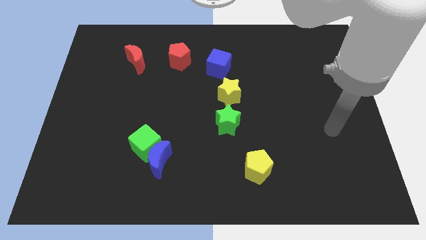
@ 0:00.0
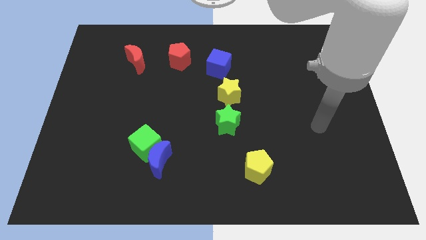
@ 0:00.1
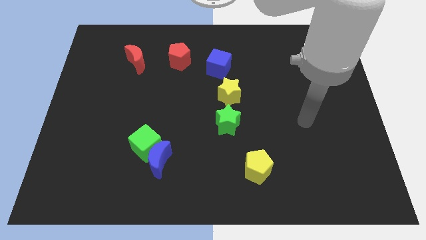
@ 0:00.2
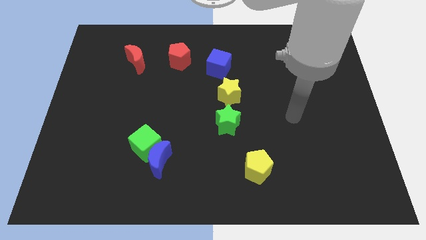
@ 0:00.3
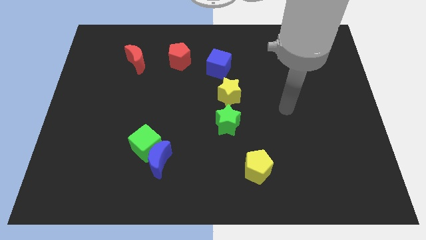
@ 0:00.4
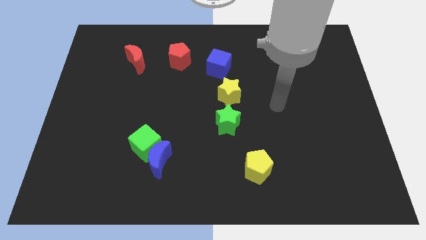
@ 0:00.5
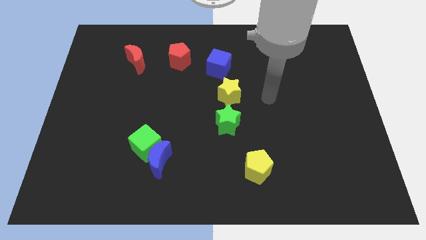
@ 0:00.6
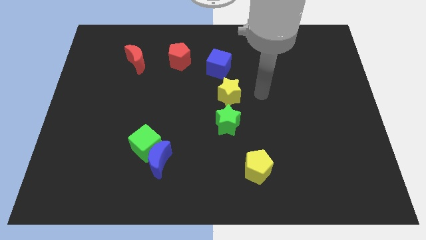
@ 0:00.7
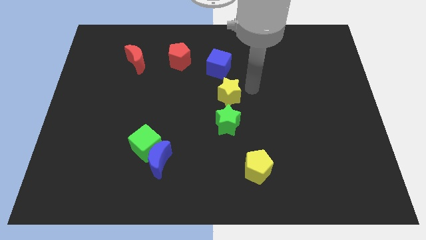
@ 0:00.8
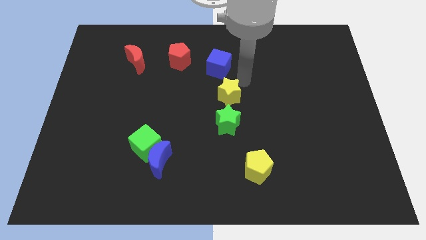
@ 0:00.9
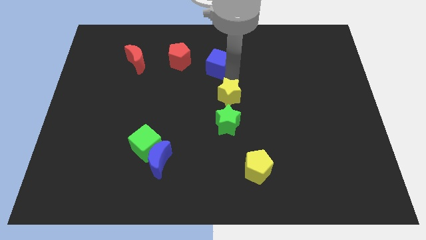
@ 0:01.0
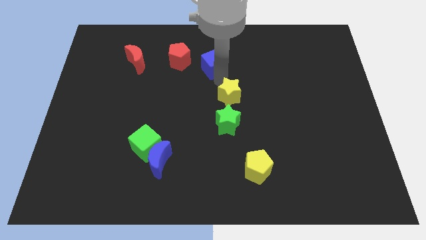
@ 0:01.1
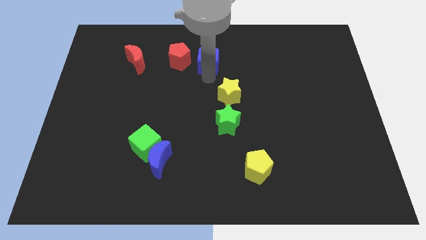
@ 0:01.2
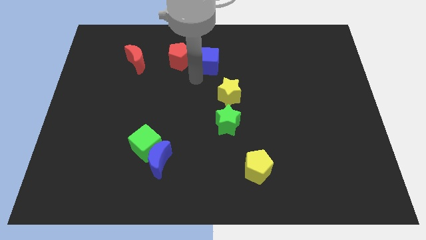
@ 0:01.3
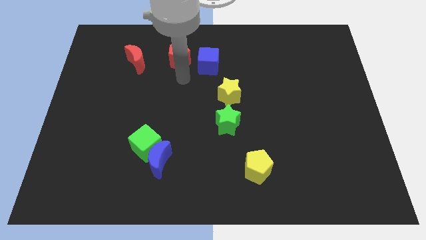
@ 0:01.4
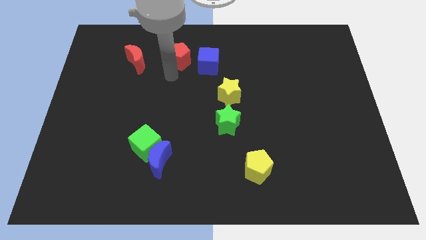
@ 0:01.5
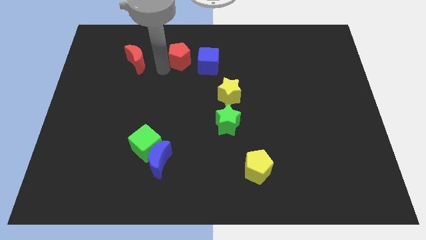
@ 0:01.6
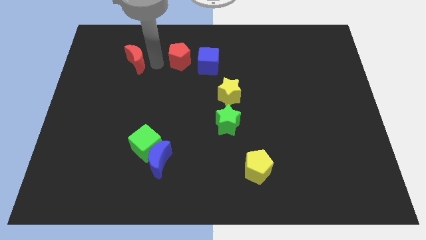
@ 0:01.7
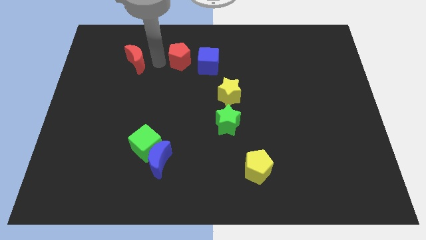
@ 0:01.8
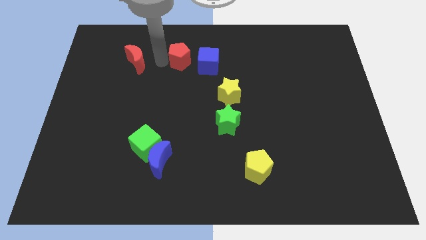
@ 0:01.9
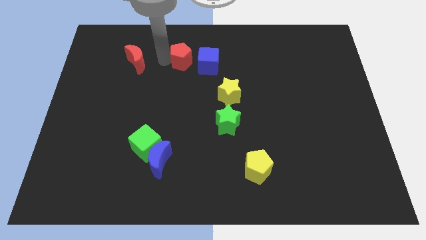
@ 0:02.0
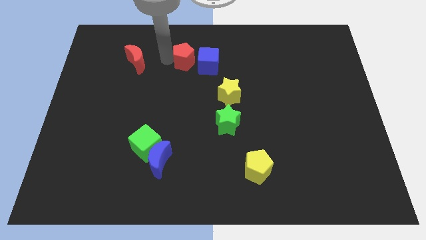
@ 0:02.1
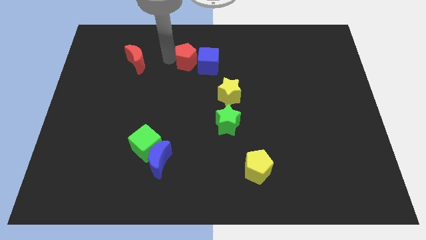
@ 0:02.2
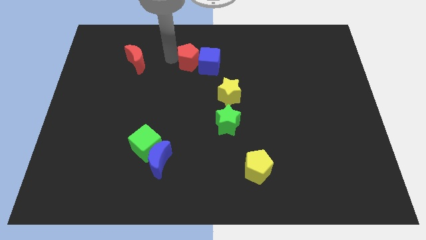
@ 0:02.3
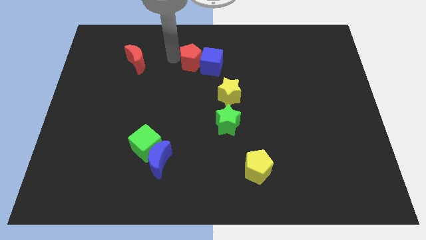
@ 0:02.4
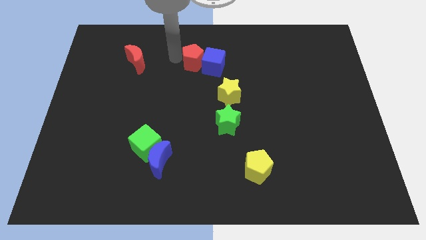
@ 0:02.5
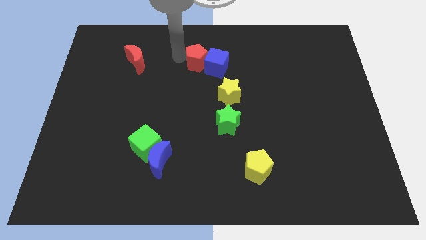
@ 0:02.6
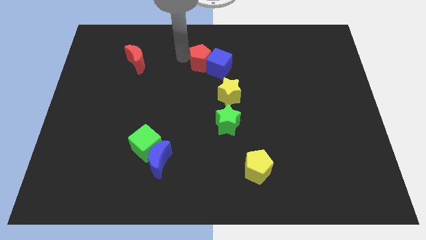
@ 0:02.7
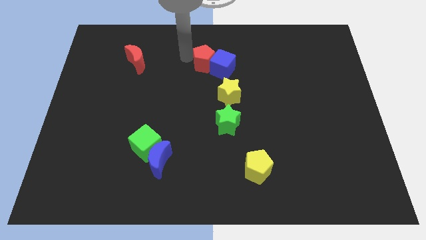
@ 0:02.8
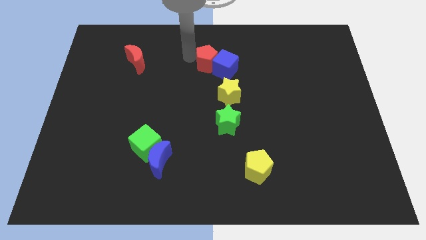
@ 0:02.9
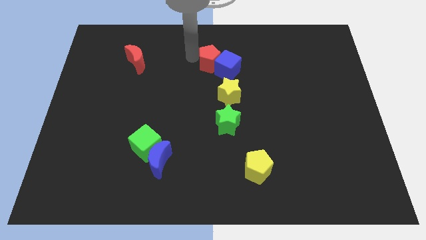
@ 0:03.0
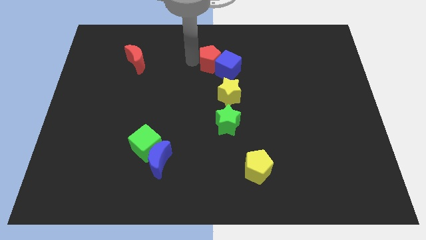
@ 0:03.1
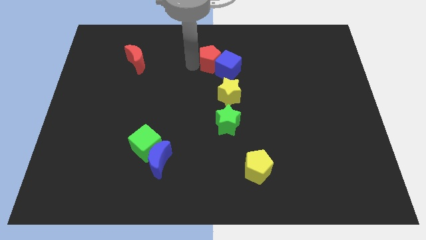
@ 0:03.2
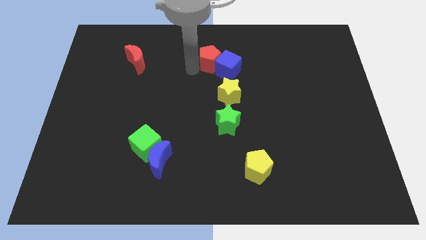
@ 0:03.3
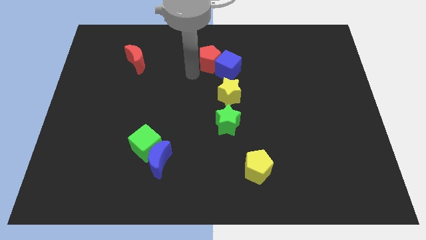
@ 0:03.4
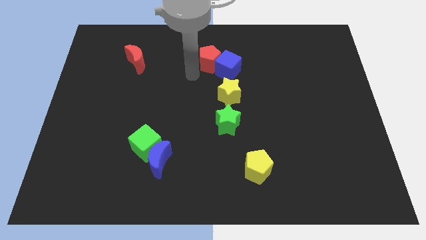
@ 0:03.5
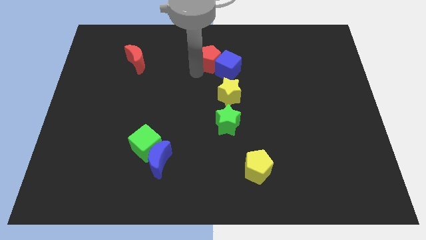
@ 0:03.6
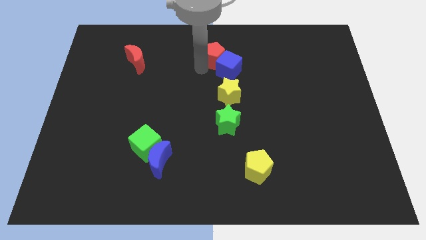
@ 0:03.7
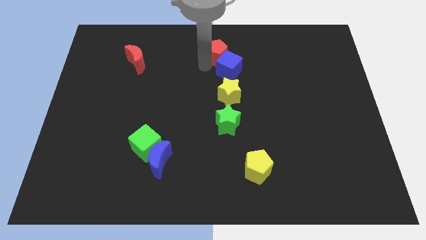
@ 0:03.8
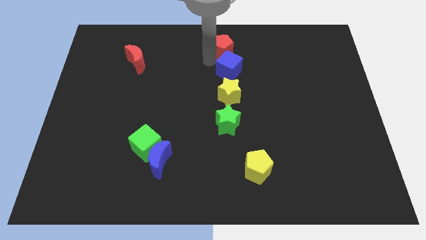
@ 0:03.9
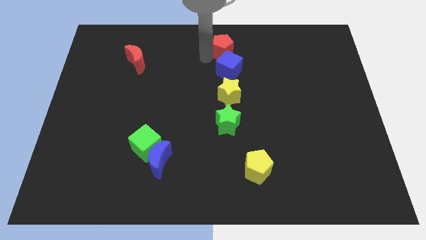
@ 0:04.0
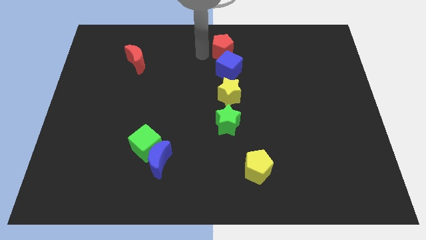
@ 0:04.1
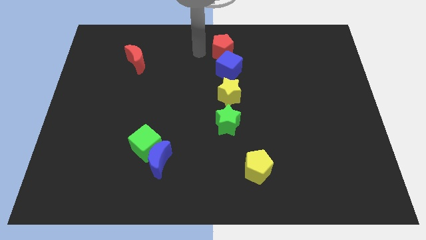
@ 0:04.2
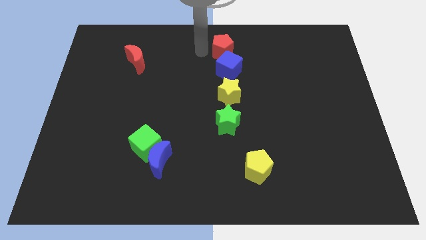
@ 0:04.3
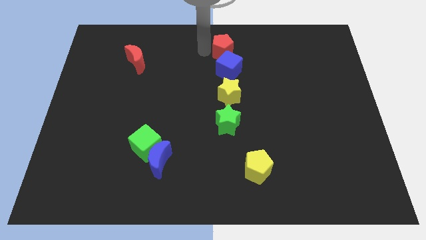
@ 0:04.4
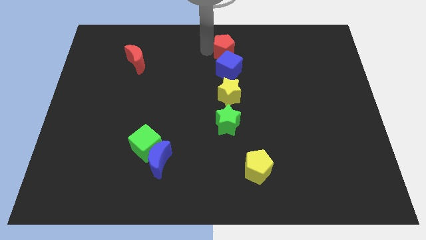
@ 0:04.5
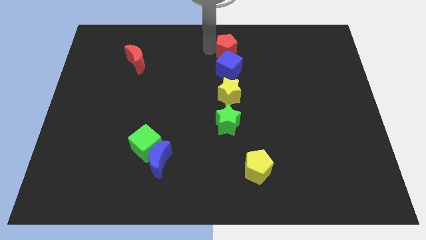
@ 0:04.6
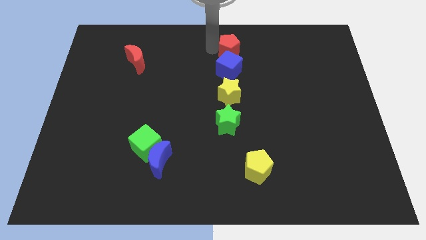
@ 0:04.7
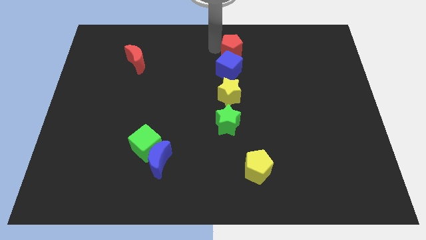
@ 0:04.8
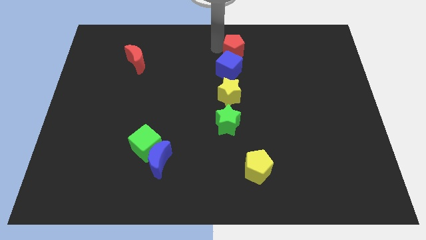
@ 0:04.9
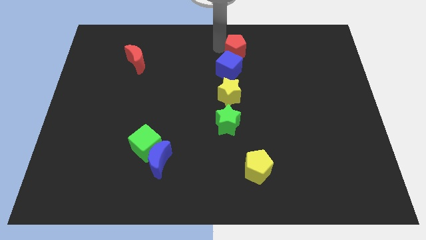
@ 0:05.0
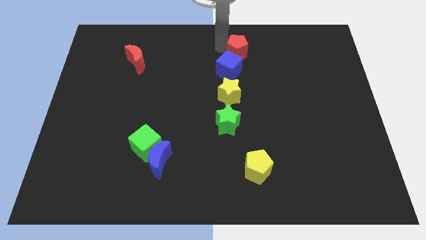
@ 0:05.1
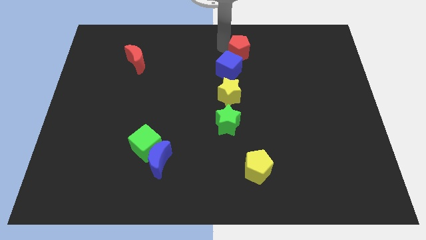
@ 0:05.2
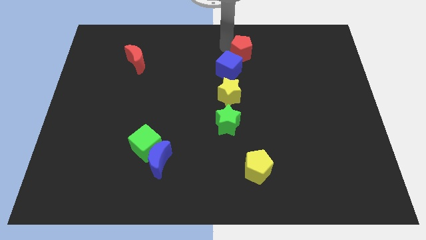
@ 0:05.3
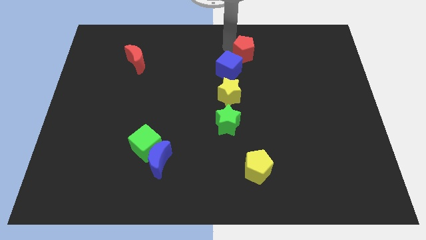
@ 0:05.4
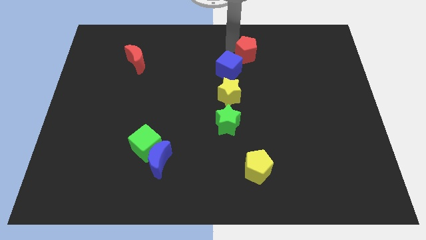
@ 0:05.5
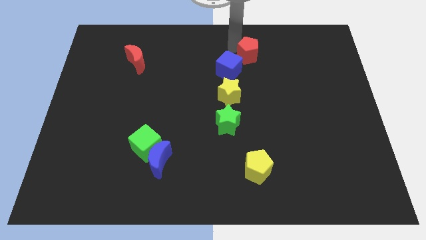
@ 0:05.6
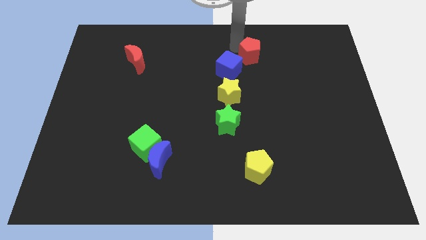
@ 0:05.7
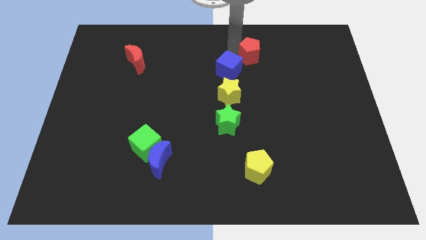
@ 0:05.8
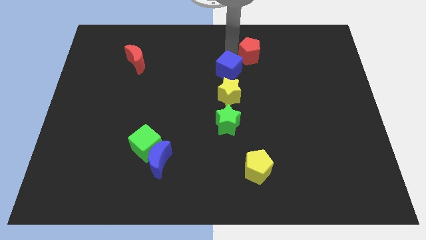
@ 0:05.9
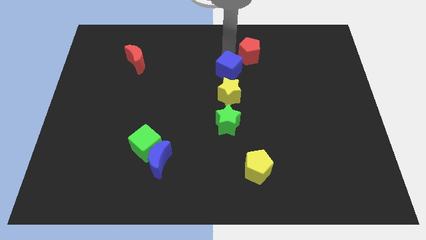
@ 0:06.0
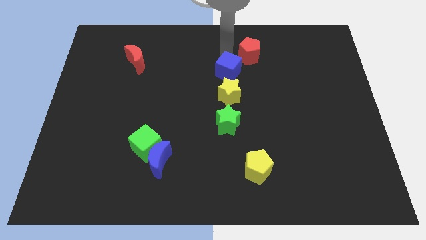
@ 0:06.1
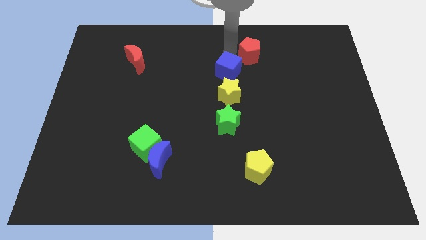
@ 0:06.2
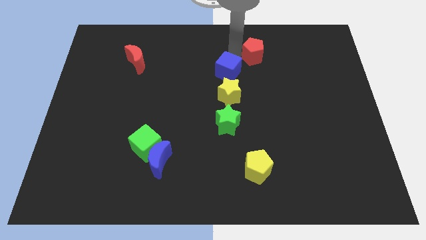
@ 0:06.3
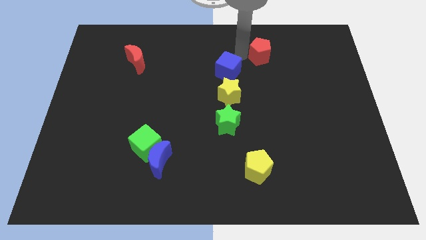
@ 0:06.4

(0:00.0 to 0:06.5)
move the red pentagon to the right

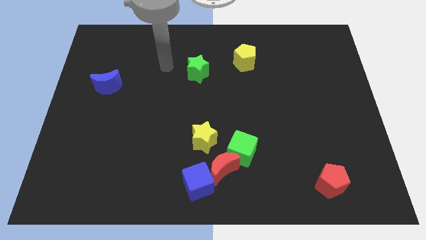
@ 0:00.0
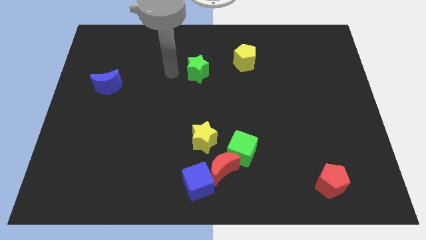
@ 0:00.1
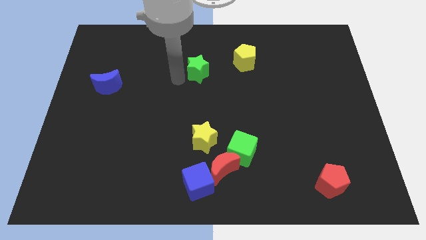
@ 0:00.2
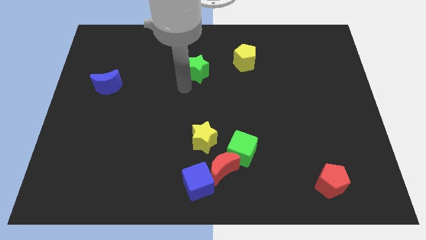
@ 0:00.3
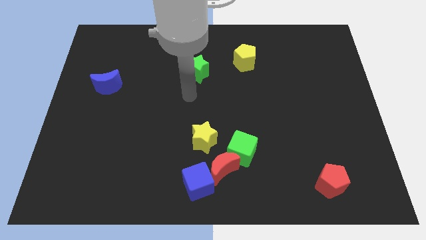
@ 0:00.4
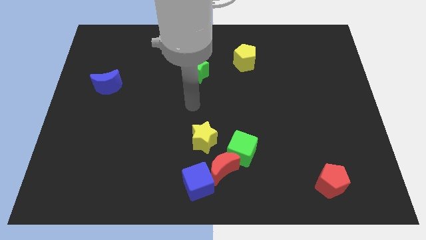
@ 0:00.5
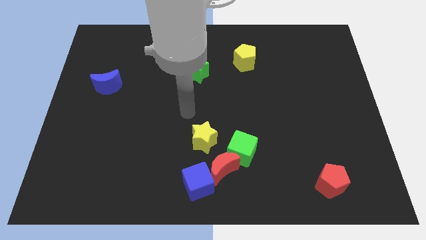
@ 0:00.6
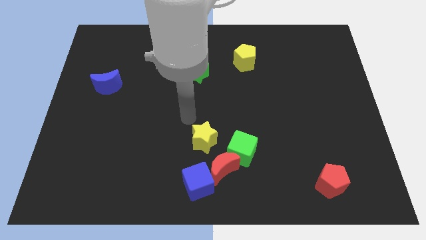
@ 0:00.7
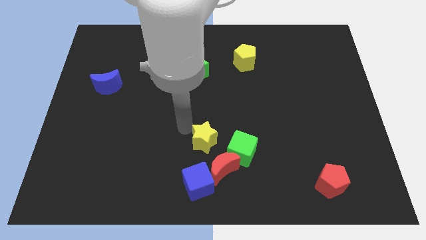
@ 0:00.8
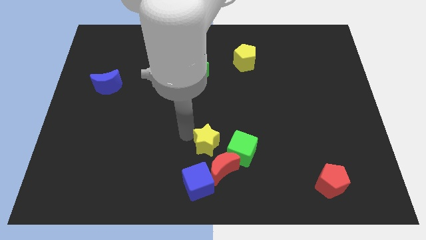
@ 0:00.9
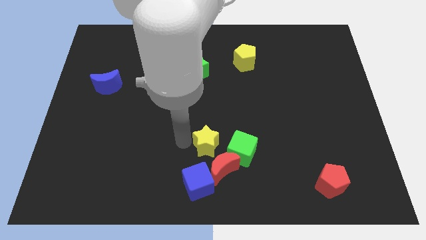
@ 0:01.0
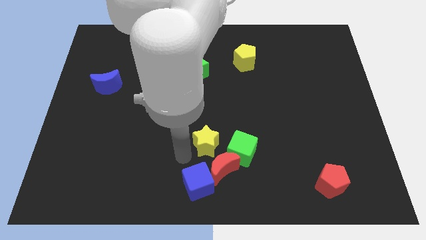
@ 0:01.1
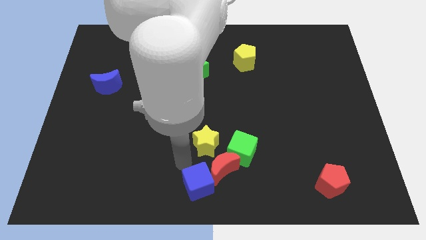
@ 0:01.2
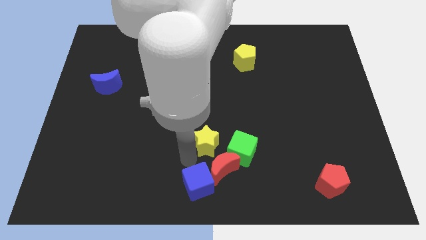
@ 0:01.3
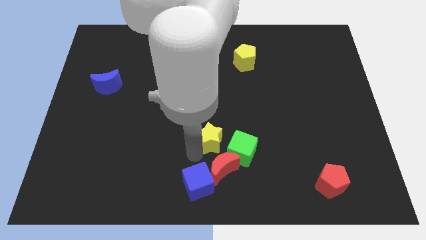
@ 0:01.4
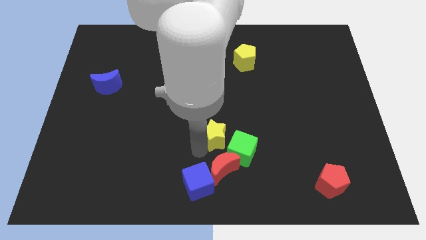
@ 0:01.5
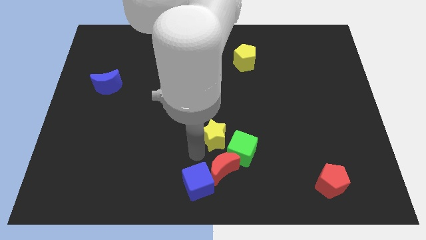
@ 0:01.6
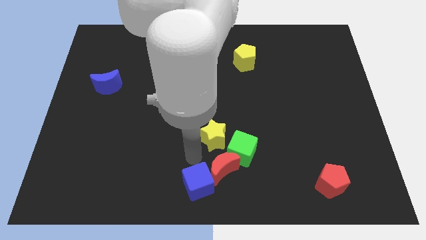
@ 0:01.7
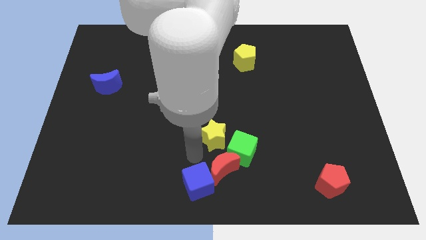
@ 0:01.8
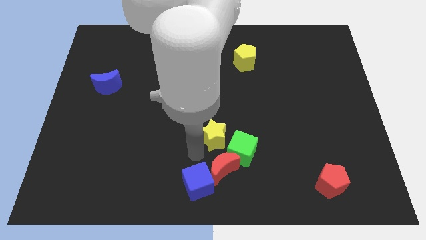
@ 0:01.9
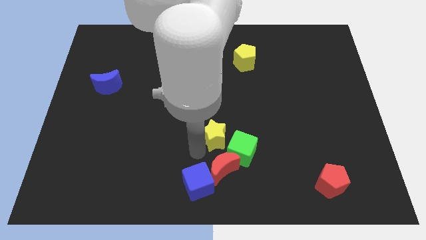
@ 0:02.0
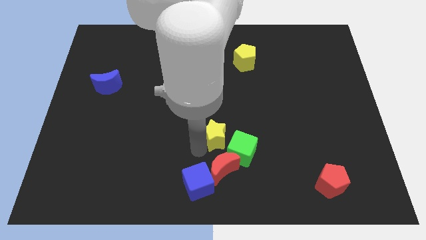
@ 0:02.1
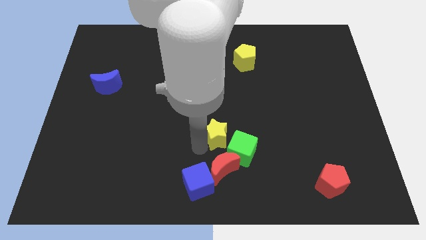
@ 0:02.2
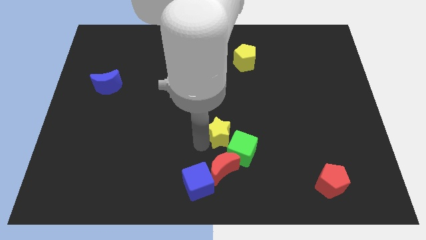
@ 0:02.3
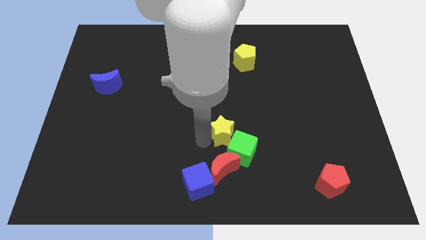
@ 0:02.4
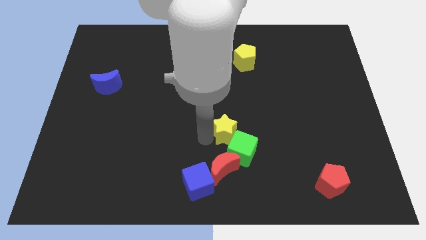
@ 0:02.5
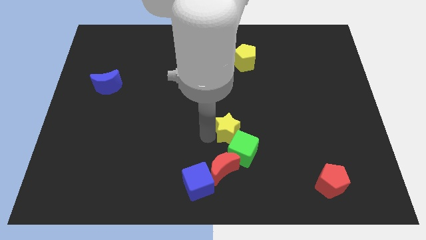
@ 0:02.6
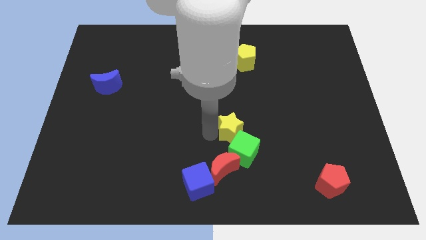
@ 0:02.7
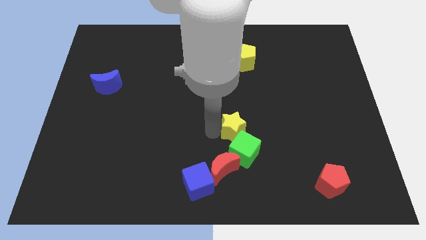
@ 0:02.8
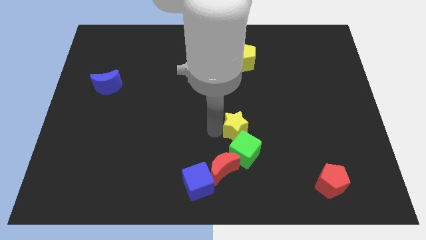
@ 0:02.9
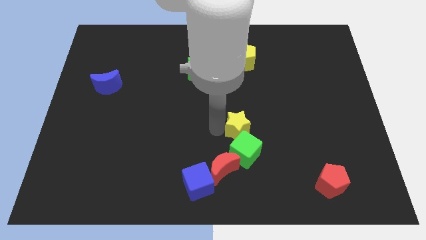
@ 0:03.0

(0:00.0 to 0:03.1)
move the yellow star to the right a bit
